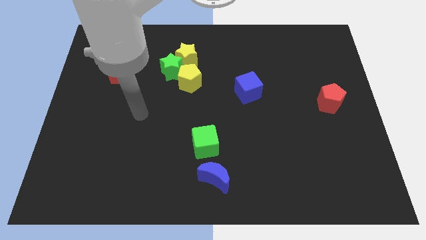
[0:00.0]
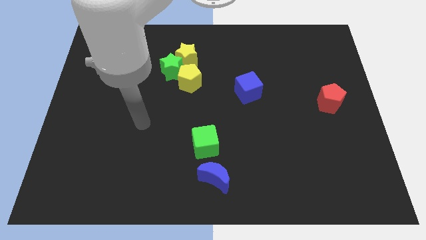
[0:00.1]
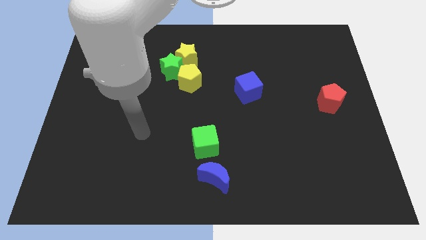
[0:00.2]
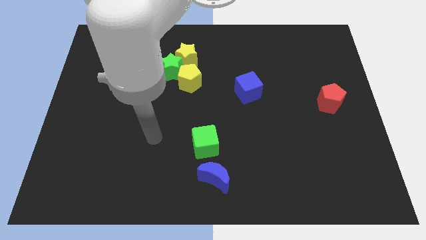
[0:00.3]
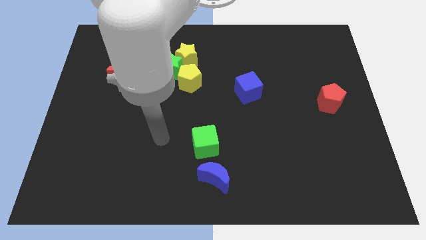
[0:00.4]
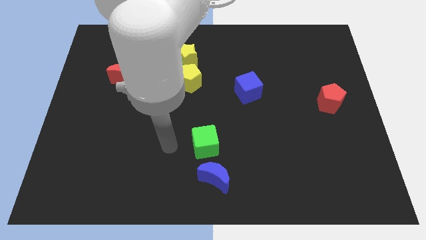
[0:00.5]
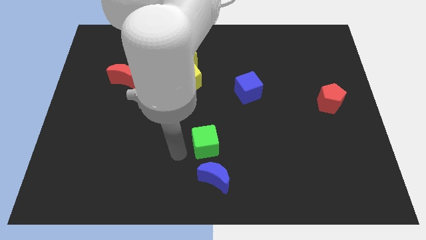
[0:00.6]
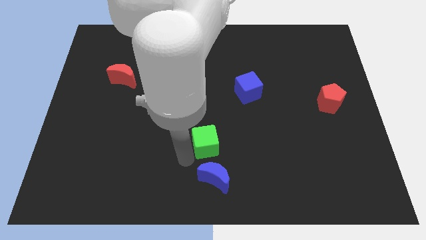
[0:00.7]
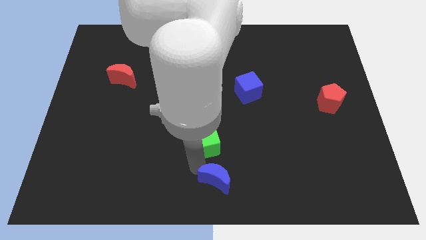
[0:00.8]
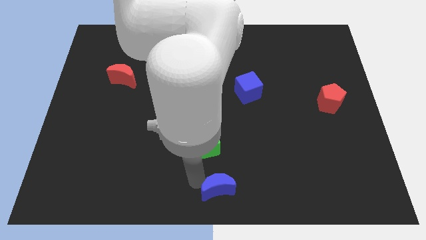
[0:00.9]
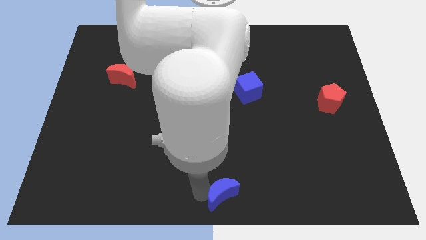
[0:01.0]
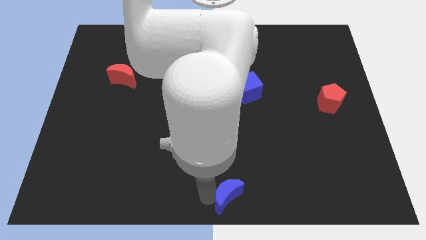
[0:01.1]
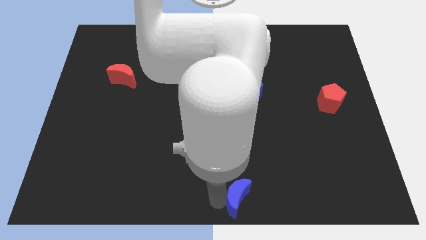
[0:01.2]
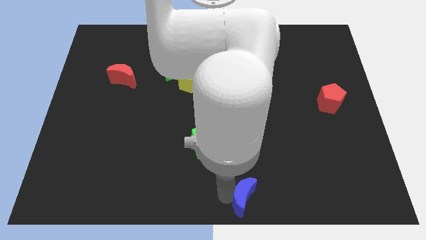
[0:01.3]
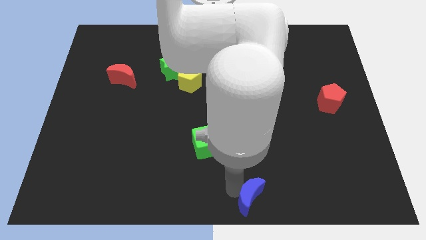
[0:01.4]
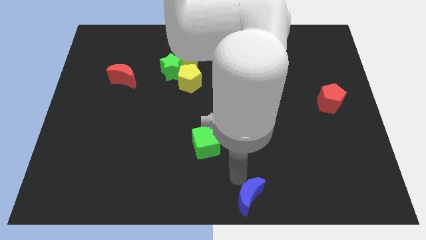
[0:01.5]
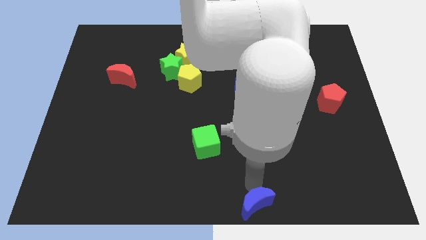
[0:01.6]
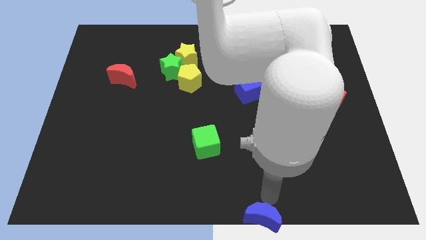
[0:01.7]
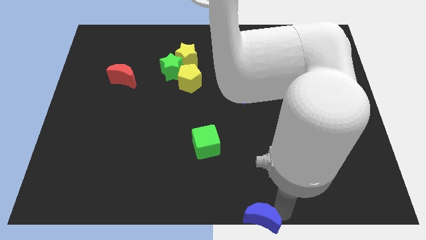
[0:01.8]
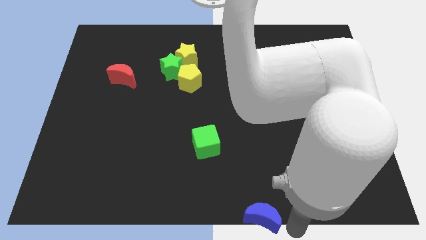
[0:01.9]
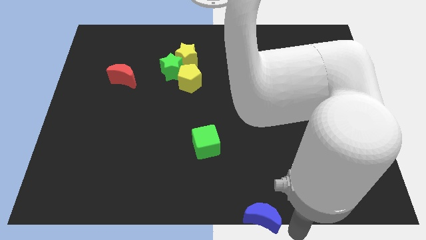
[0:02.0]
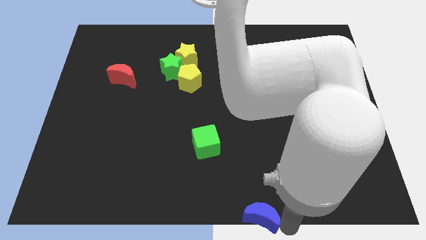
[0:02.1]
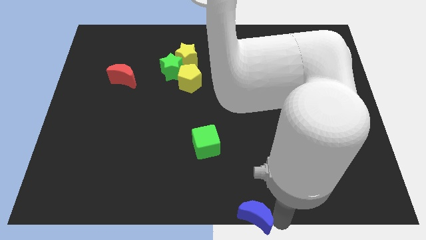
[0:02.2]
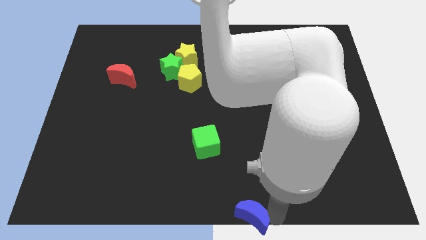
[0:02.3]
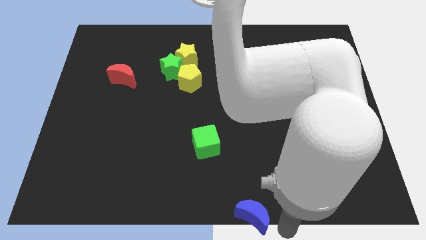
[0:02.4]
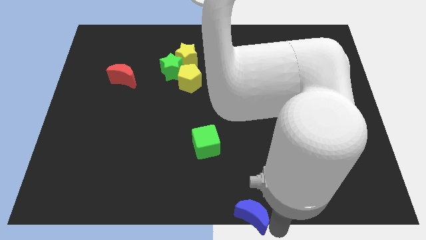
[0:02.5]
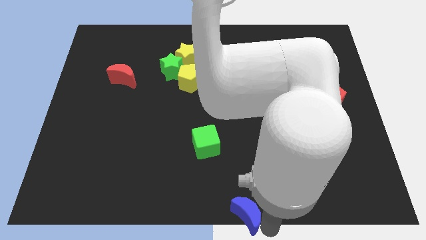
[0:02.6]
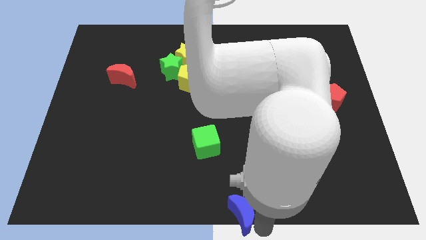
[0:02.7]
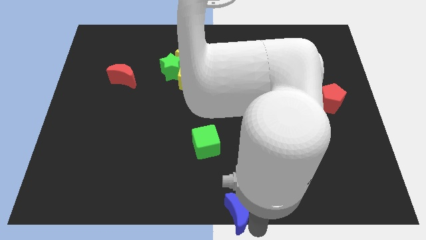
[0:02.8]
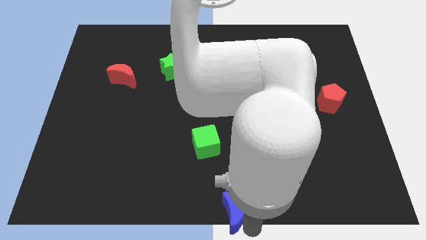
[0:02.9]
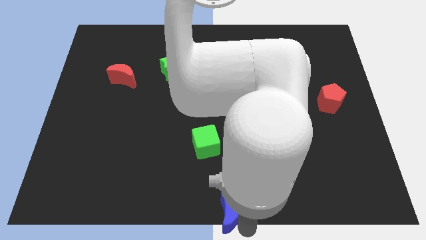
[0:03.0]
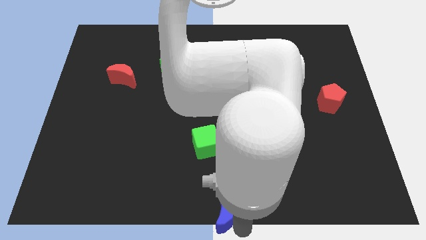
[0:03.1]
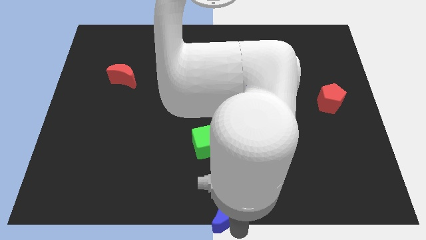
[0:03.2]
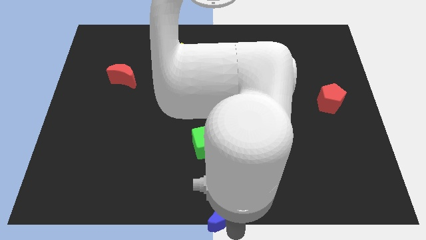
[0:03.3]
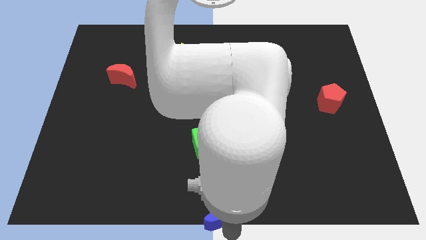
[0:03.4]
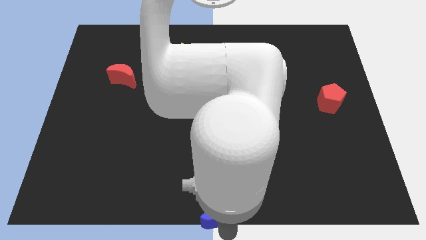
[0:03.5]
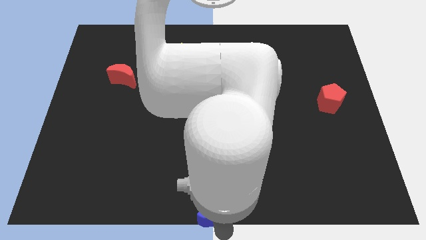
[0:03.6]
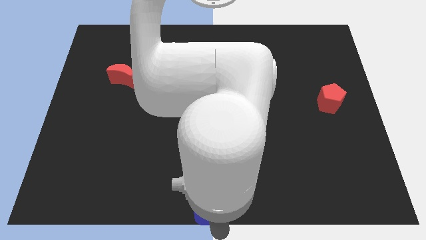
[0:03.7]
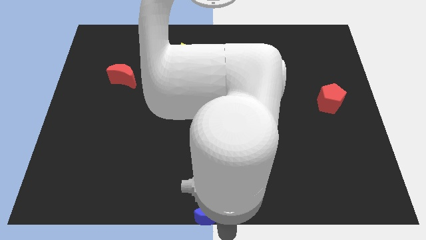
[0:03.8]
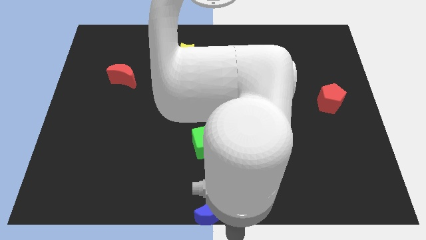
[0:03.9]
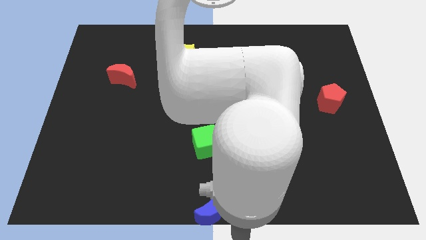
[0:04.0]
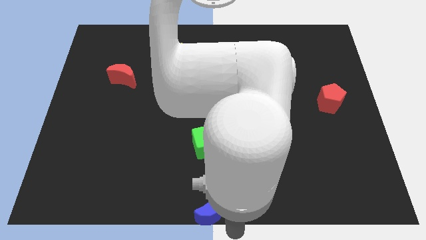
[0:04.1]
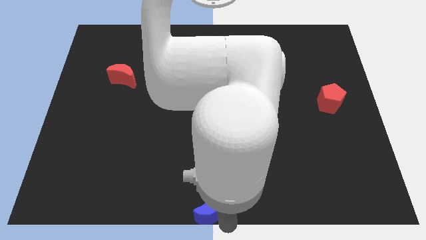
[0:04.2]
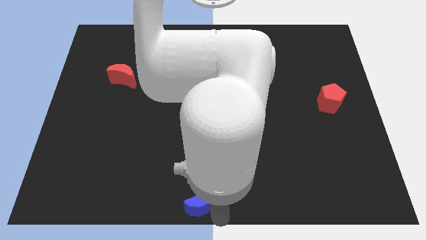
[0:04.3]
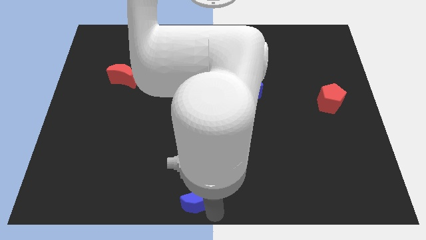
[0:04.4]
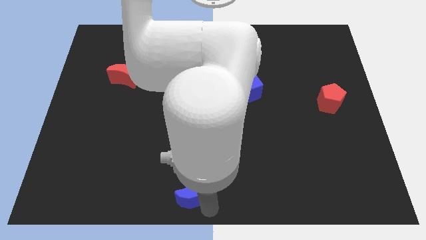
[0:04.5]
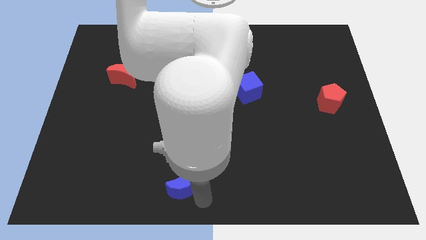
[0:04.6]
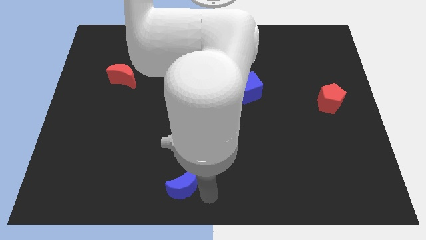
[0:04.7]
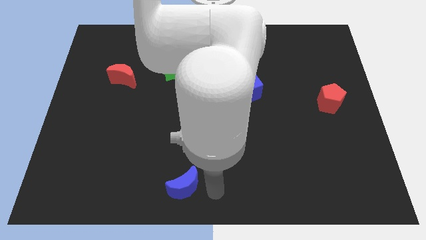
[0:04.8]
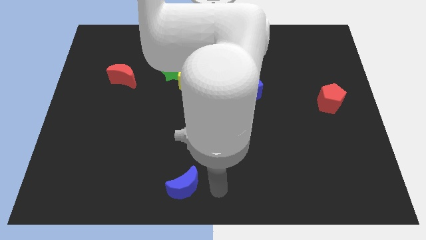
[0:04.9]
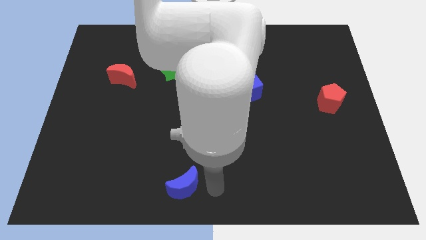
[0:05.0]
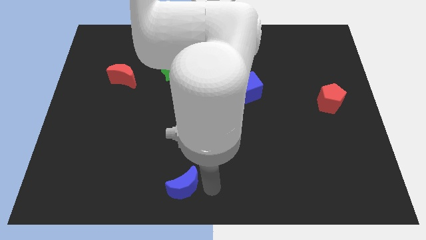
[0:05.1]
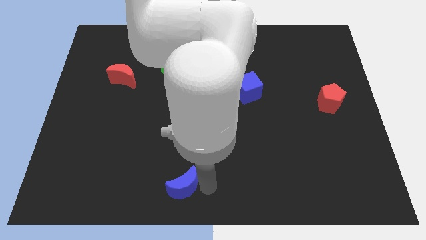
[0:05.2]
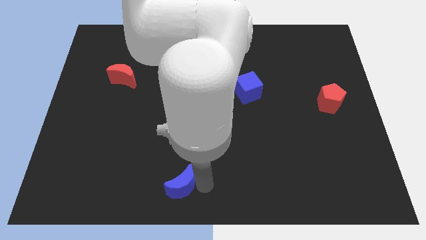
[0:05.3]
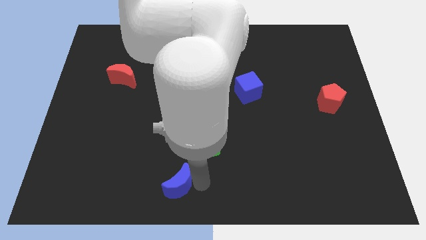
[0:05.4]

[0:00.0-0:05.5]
move the blue moon to the left slightly

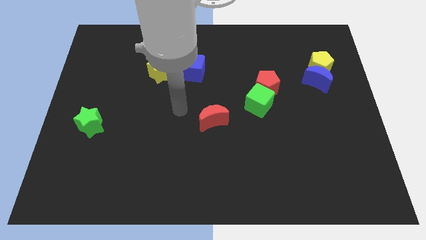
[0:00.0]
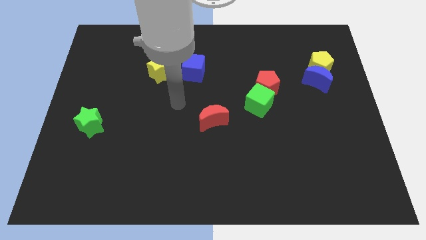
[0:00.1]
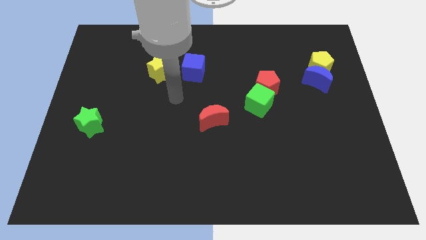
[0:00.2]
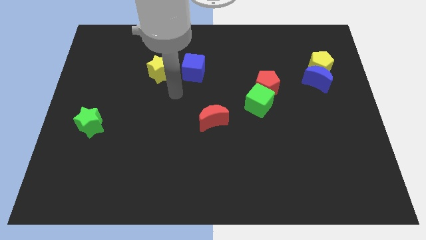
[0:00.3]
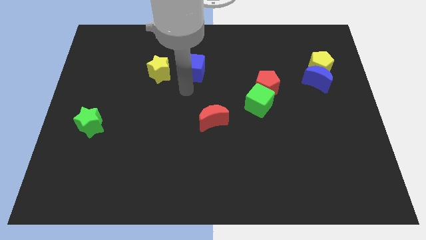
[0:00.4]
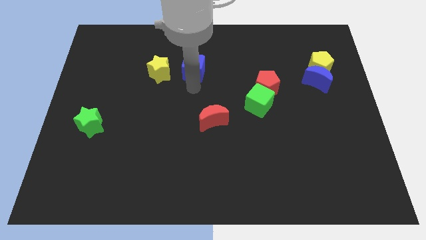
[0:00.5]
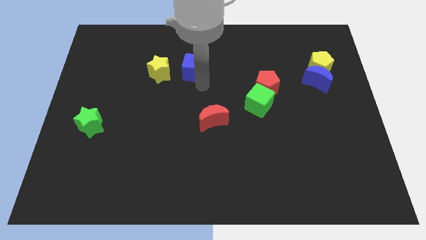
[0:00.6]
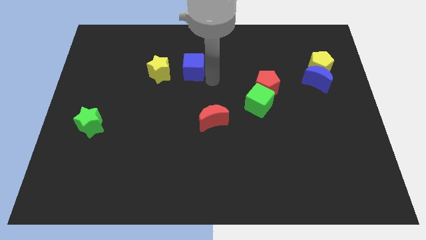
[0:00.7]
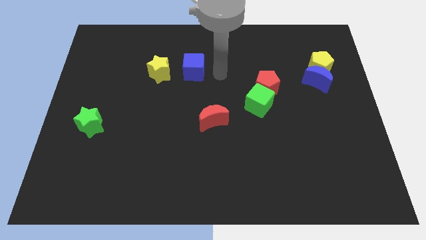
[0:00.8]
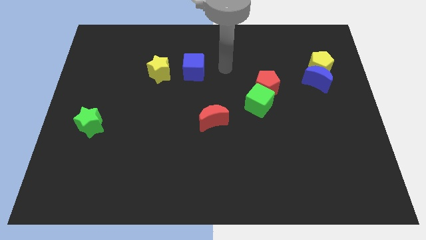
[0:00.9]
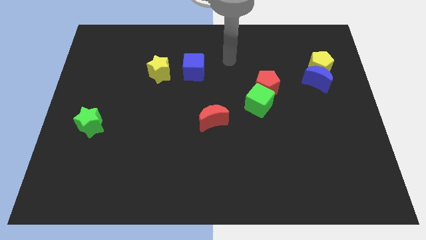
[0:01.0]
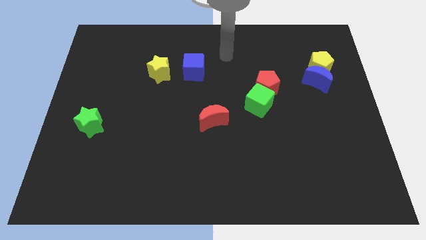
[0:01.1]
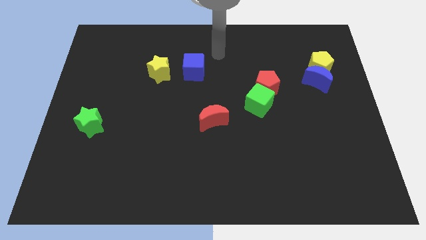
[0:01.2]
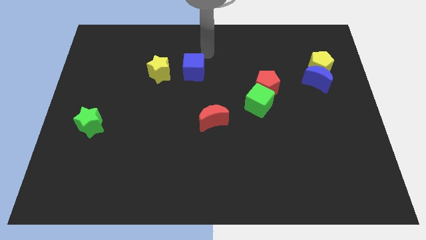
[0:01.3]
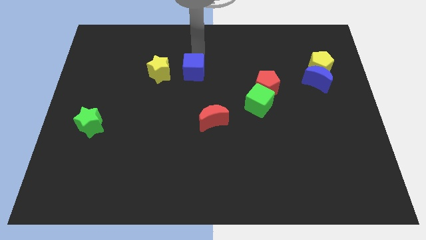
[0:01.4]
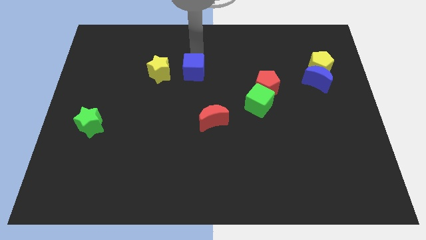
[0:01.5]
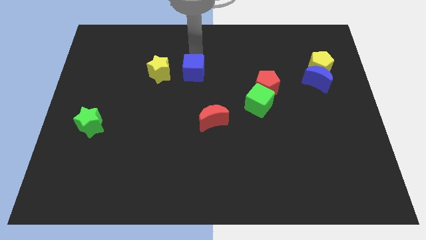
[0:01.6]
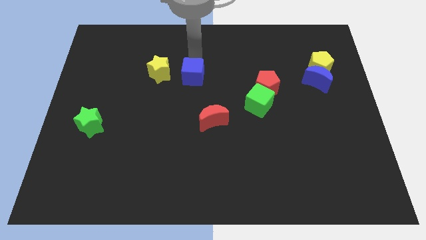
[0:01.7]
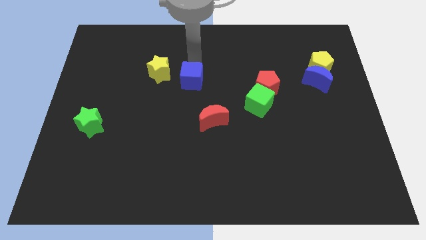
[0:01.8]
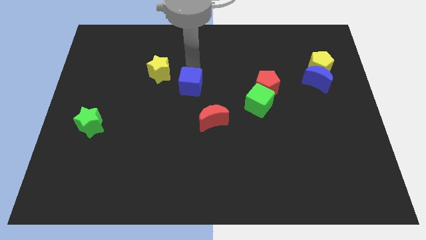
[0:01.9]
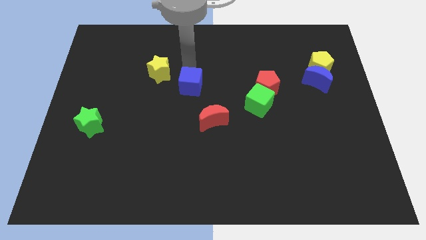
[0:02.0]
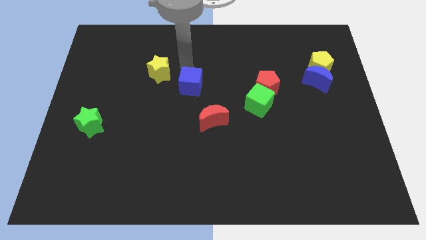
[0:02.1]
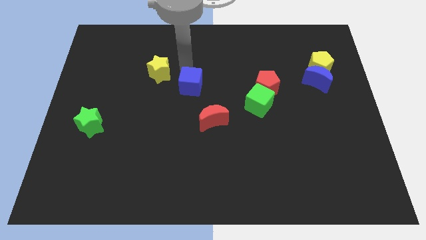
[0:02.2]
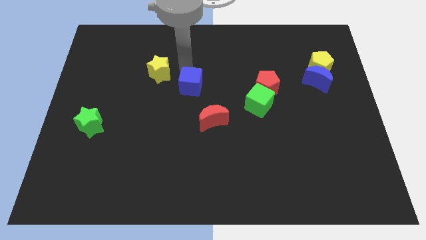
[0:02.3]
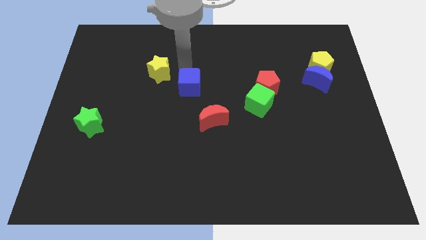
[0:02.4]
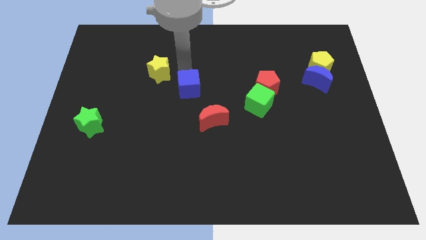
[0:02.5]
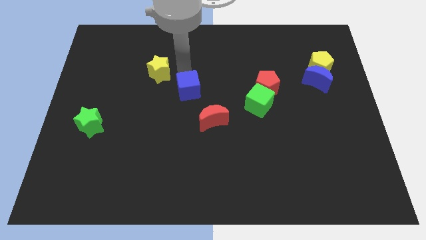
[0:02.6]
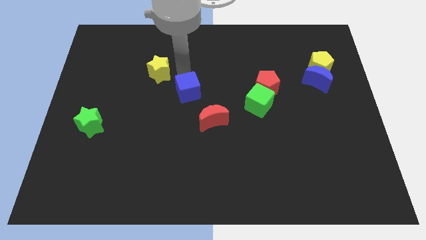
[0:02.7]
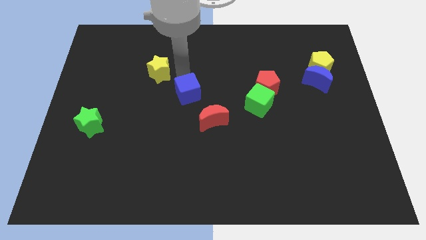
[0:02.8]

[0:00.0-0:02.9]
push the blue cube down a little
